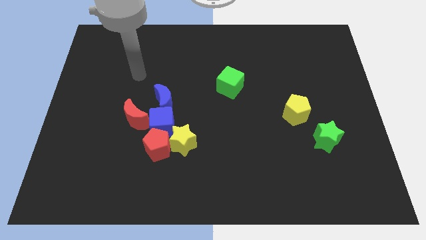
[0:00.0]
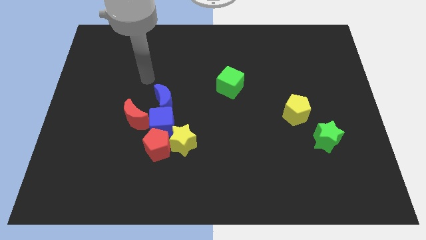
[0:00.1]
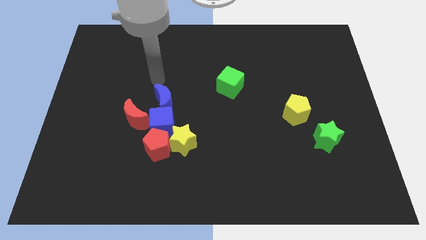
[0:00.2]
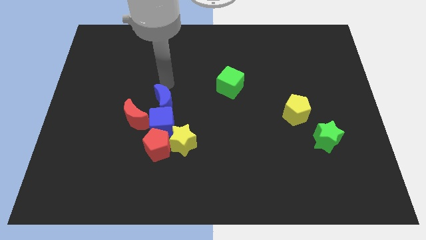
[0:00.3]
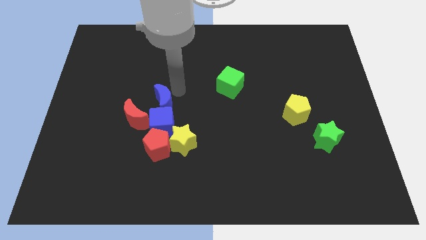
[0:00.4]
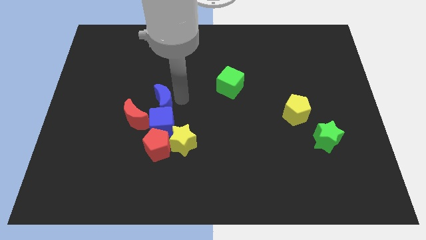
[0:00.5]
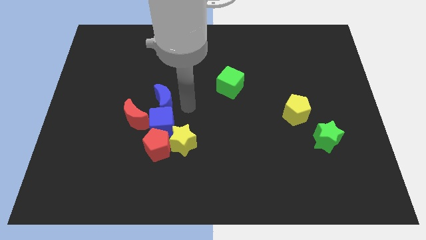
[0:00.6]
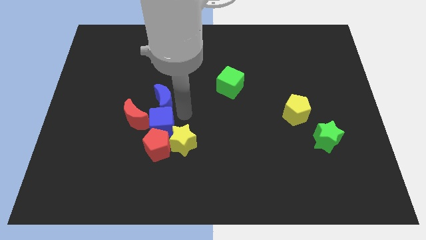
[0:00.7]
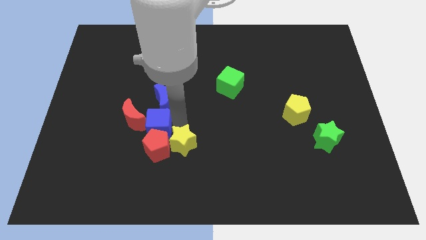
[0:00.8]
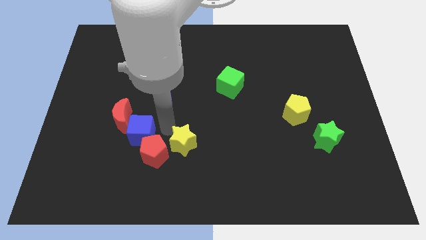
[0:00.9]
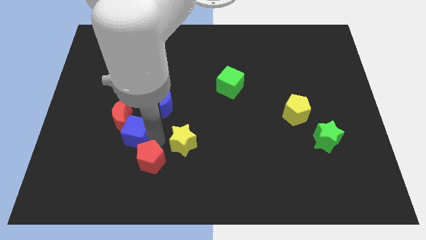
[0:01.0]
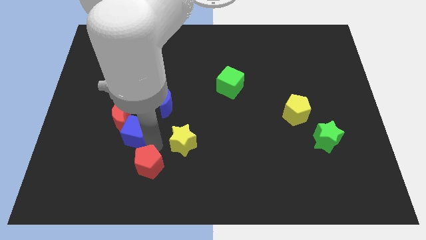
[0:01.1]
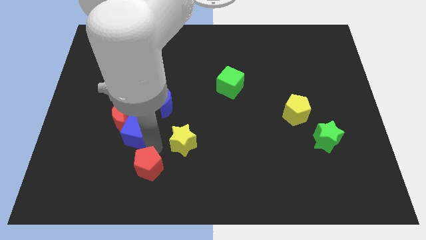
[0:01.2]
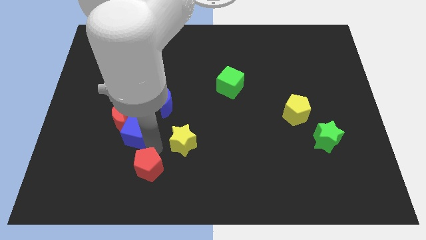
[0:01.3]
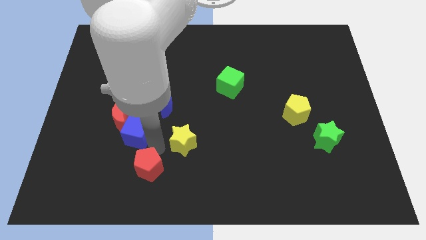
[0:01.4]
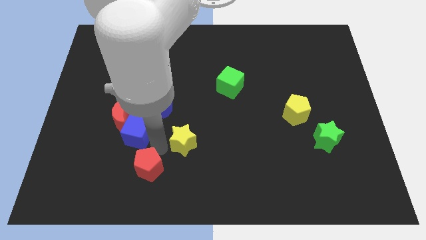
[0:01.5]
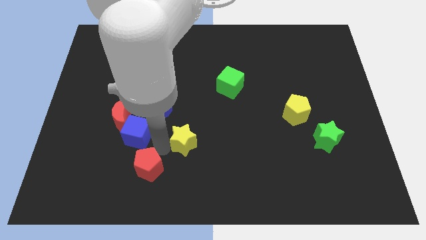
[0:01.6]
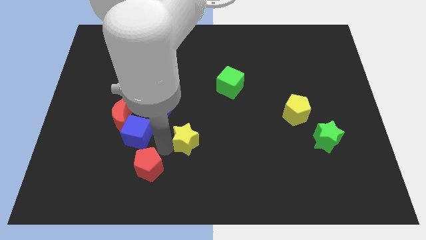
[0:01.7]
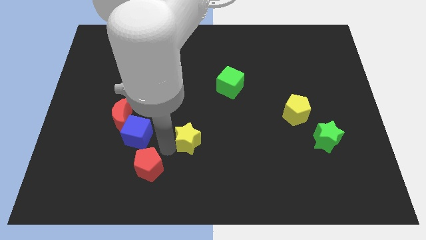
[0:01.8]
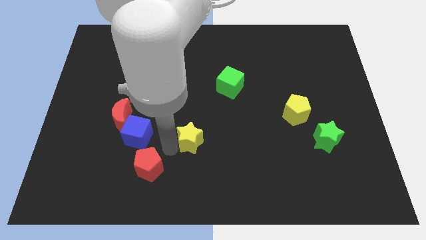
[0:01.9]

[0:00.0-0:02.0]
move the yellow star away from the red pentagon and blue cube

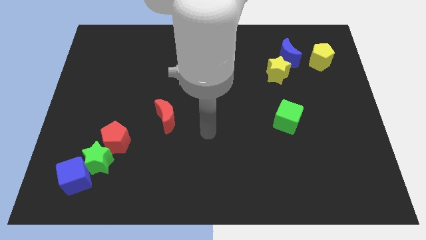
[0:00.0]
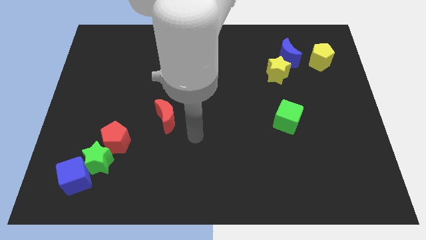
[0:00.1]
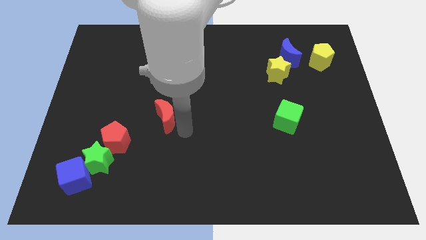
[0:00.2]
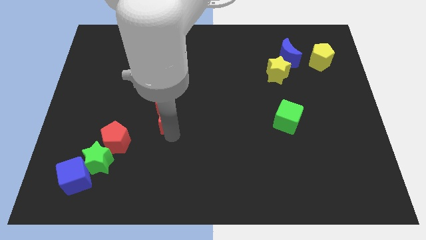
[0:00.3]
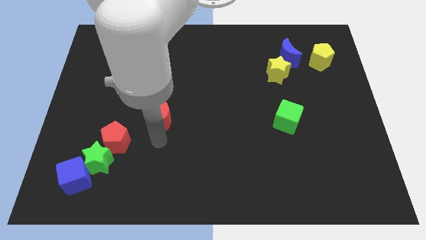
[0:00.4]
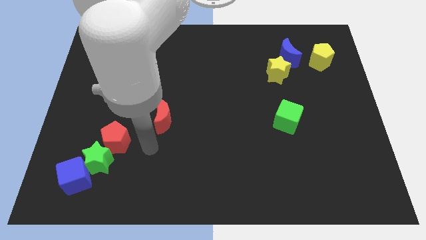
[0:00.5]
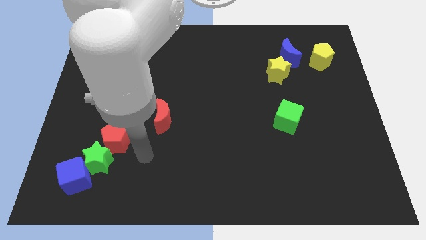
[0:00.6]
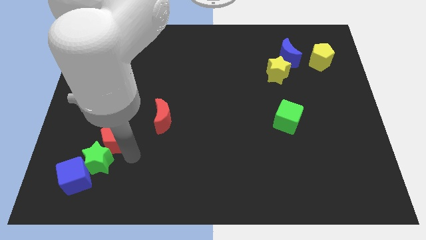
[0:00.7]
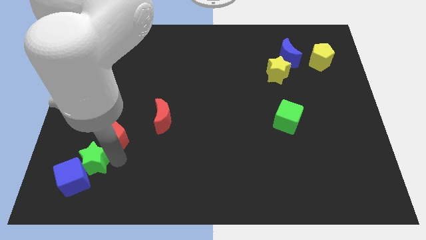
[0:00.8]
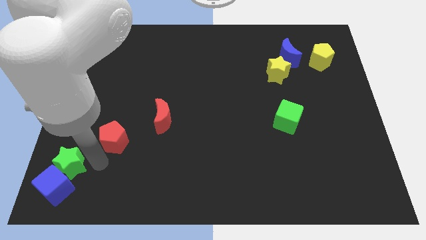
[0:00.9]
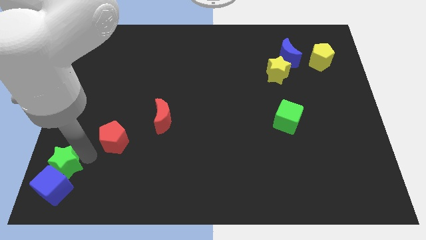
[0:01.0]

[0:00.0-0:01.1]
separate the red pentagon from the green star

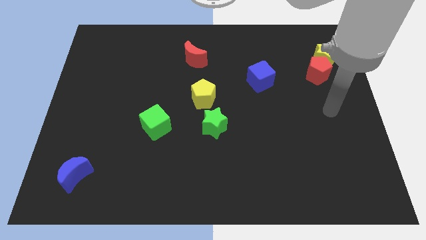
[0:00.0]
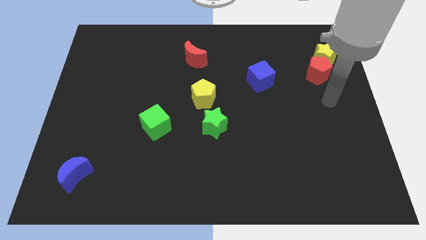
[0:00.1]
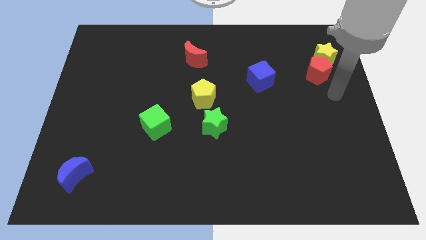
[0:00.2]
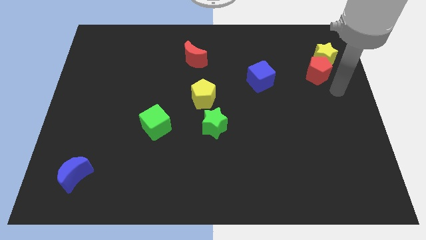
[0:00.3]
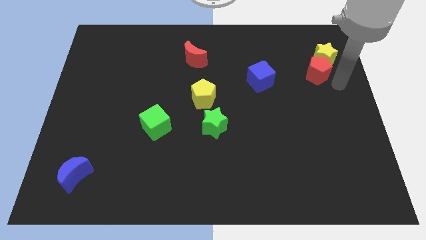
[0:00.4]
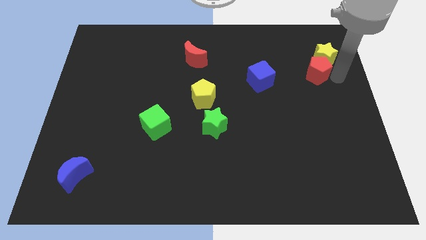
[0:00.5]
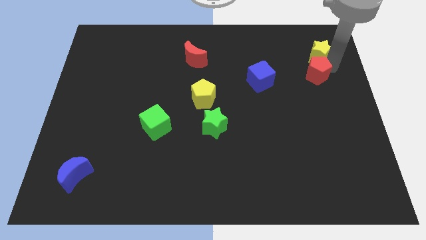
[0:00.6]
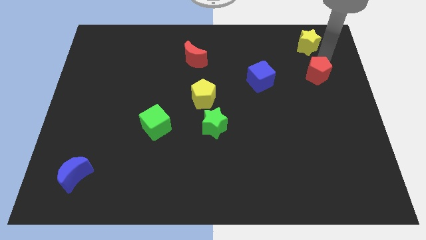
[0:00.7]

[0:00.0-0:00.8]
move the red pentagon away from the yellow star

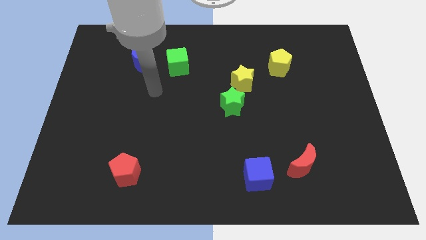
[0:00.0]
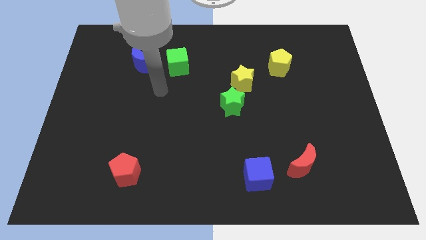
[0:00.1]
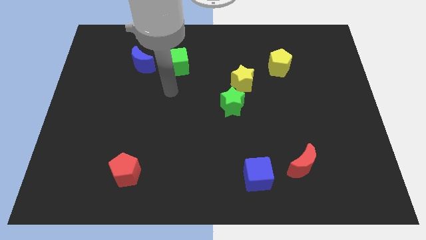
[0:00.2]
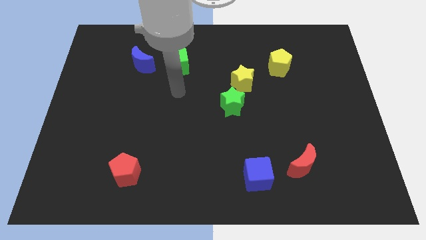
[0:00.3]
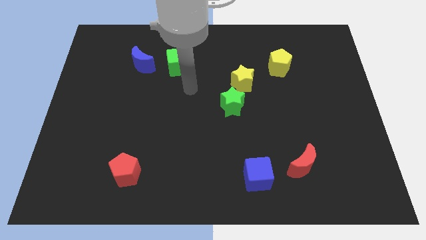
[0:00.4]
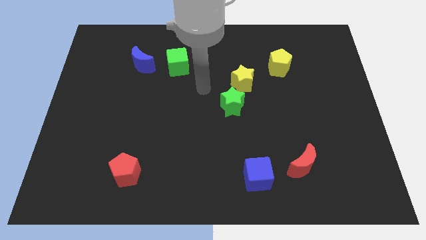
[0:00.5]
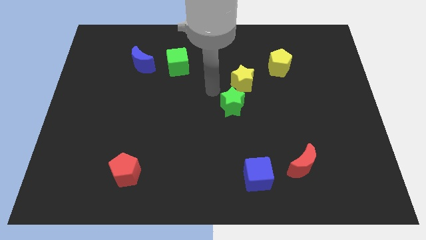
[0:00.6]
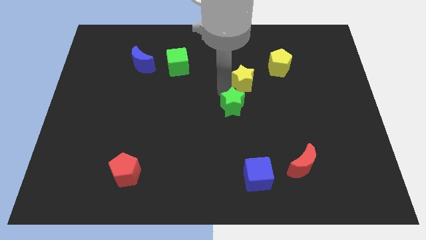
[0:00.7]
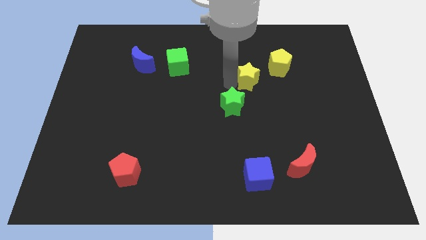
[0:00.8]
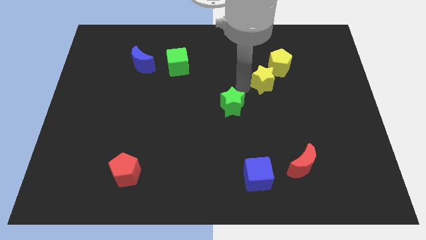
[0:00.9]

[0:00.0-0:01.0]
pull the green star apart from the yellow star

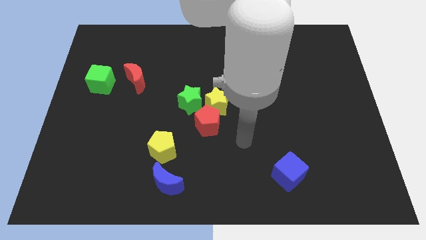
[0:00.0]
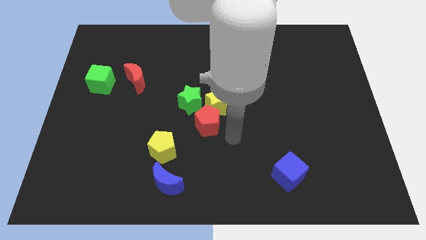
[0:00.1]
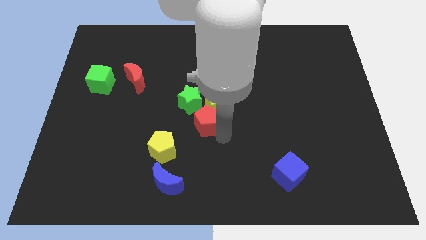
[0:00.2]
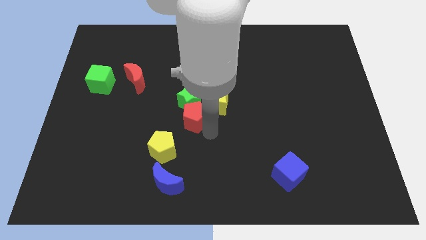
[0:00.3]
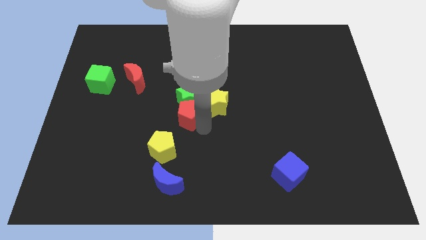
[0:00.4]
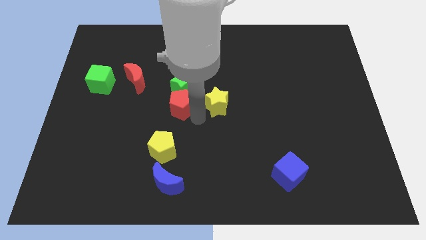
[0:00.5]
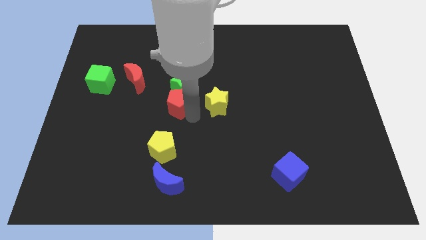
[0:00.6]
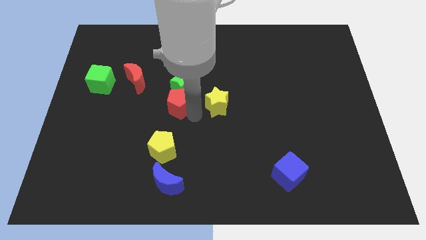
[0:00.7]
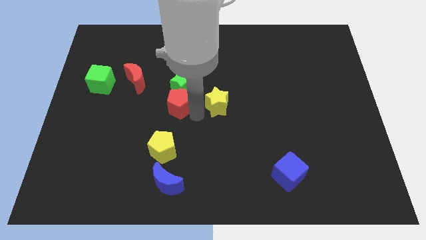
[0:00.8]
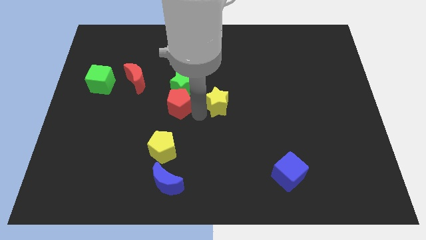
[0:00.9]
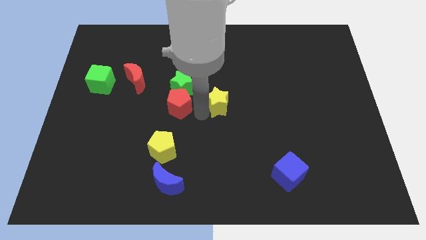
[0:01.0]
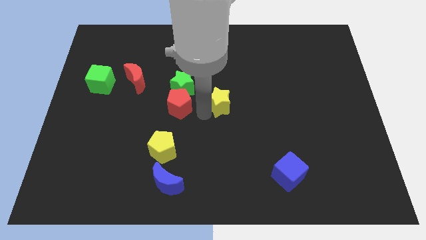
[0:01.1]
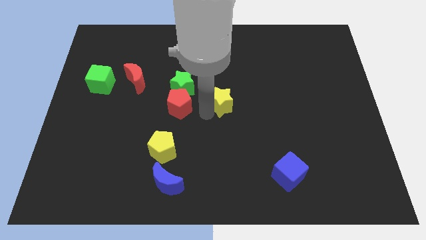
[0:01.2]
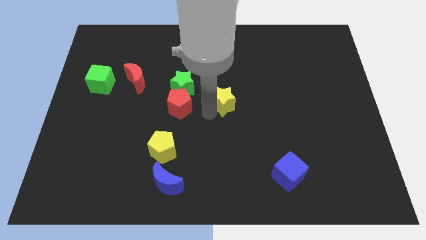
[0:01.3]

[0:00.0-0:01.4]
move the yellow star away from the red pentagon and green star

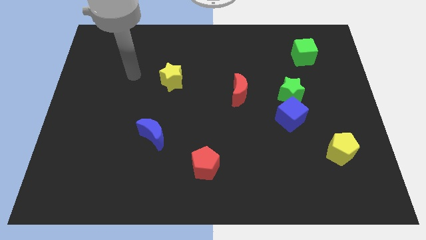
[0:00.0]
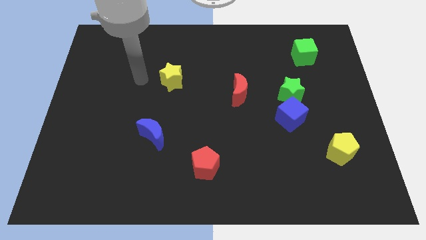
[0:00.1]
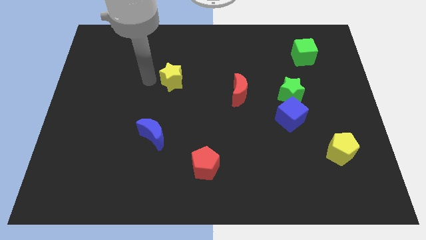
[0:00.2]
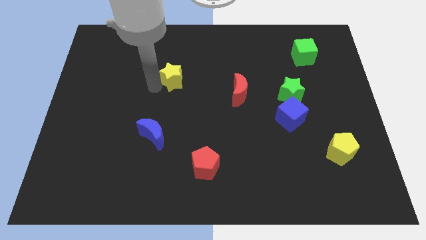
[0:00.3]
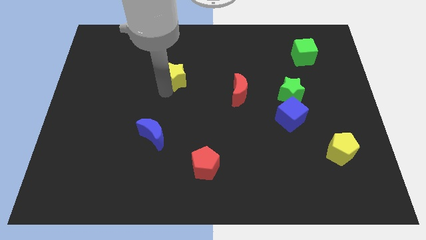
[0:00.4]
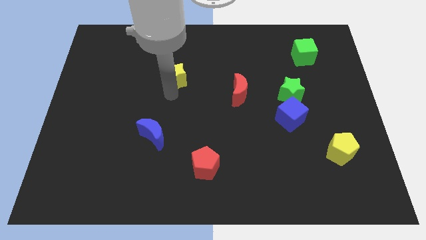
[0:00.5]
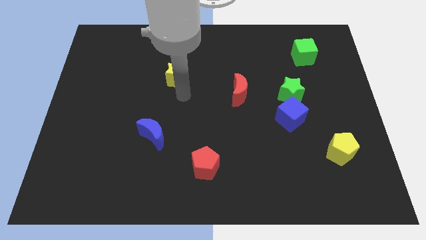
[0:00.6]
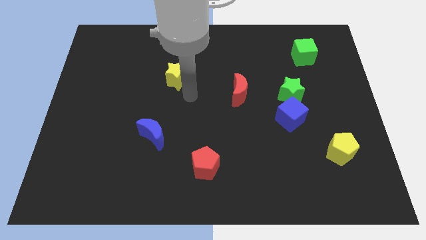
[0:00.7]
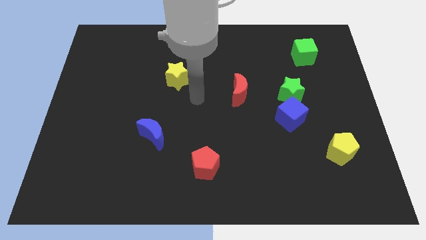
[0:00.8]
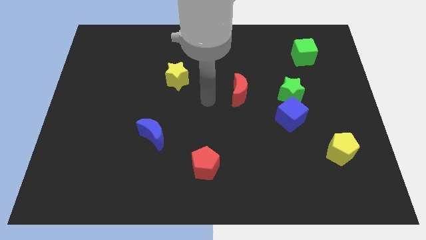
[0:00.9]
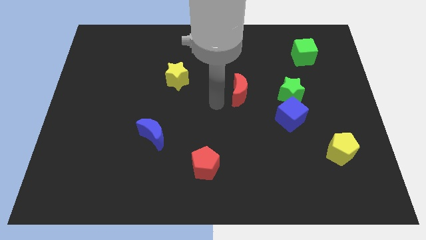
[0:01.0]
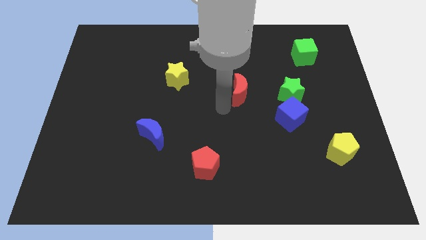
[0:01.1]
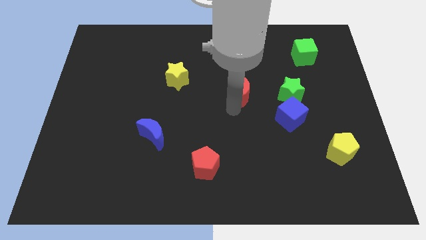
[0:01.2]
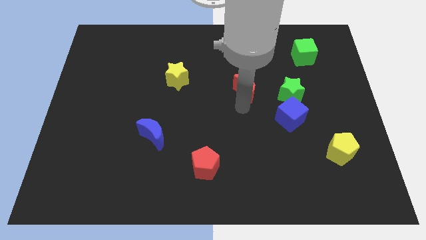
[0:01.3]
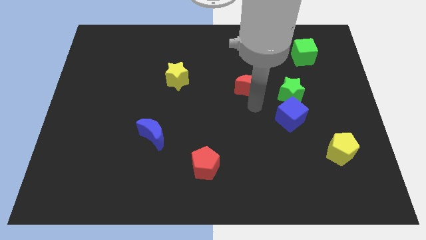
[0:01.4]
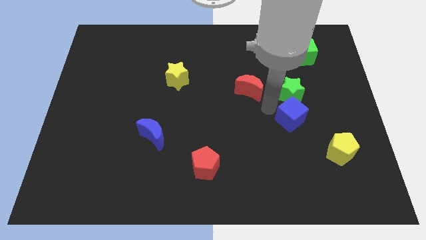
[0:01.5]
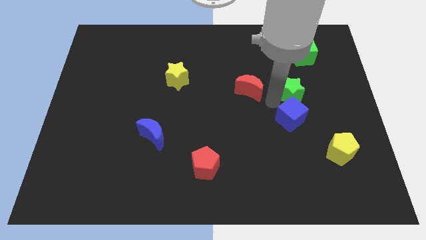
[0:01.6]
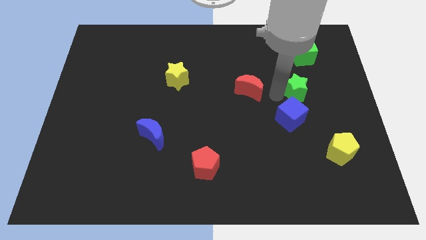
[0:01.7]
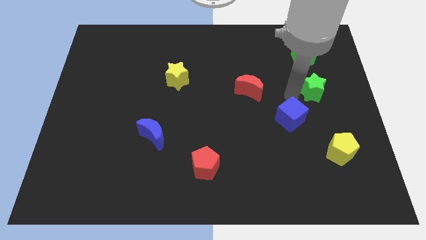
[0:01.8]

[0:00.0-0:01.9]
separate the blue cube from the green star

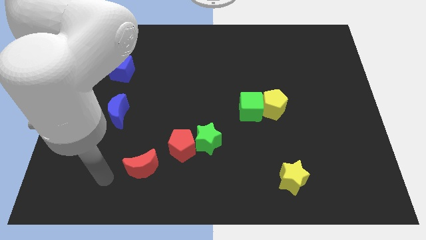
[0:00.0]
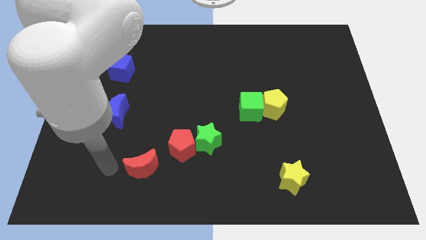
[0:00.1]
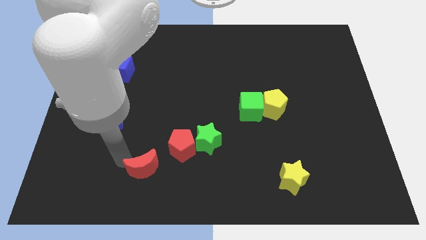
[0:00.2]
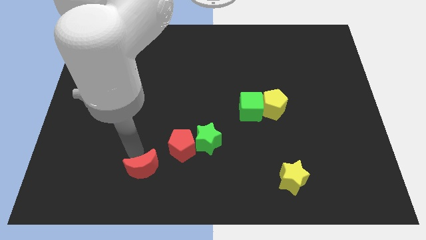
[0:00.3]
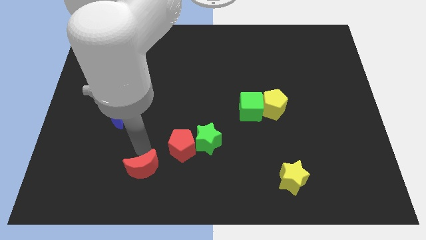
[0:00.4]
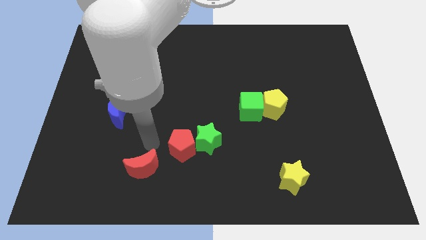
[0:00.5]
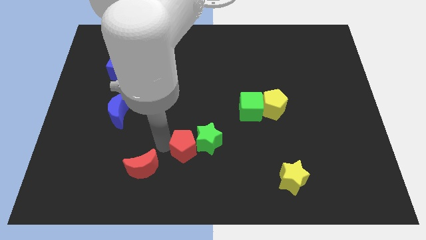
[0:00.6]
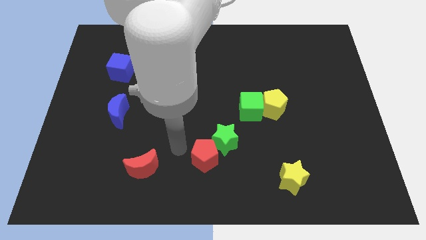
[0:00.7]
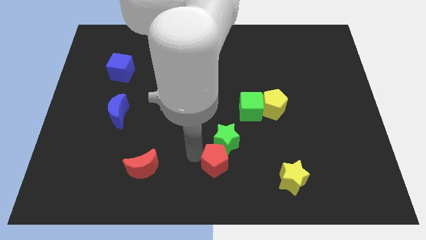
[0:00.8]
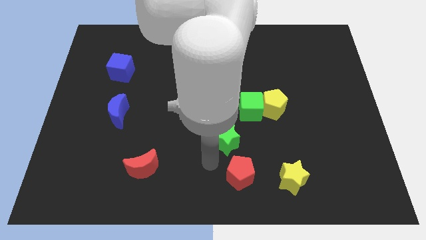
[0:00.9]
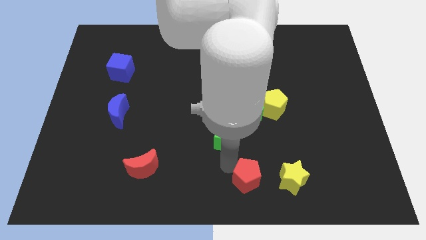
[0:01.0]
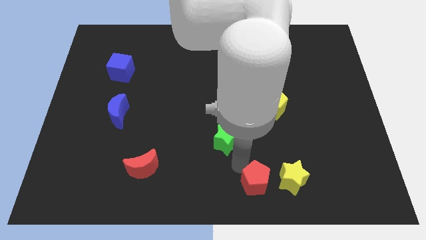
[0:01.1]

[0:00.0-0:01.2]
move the green star away from the red pentagon
